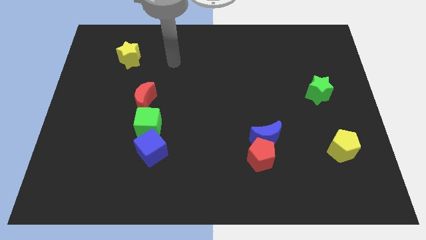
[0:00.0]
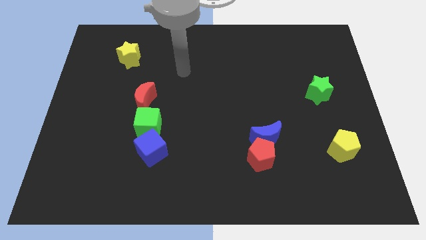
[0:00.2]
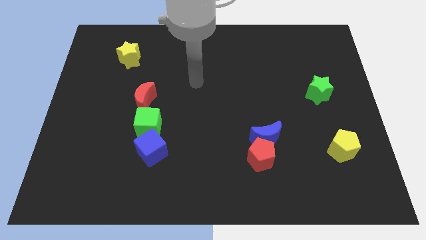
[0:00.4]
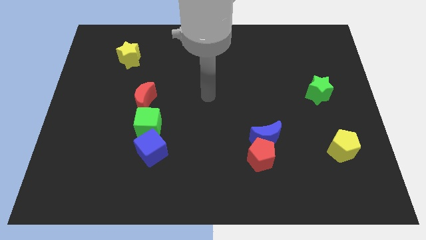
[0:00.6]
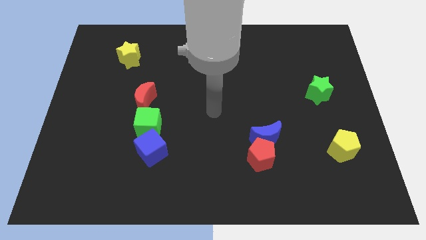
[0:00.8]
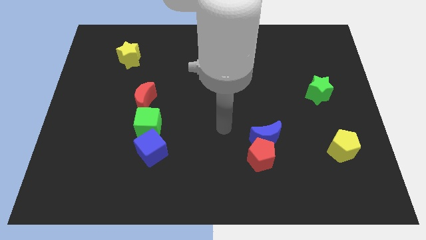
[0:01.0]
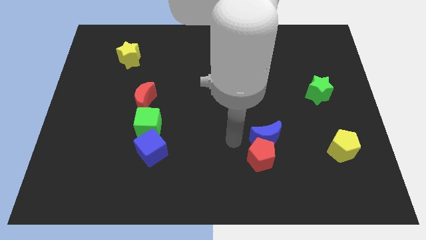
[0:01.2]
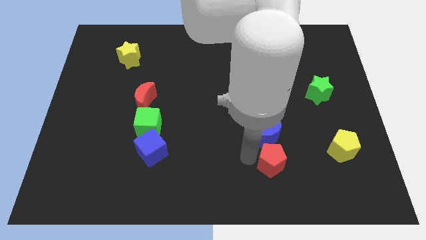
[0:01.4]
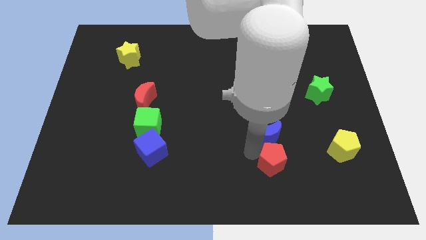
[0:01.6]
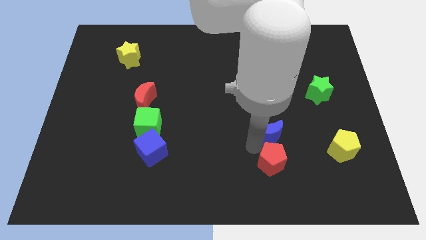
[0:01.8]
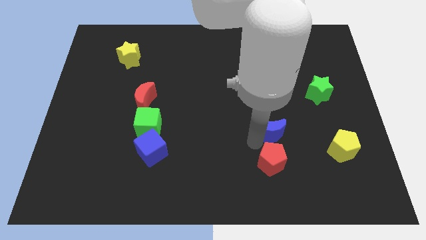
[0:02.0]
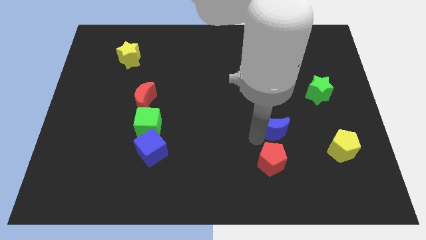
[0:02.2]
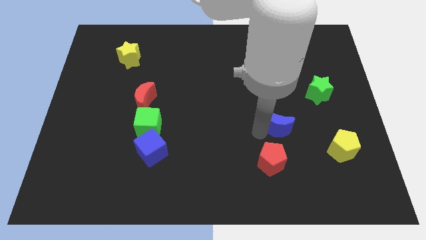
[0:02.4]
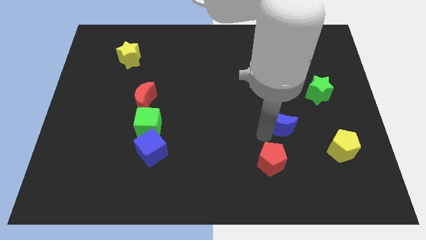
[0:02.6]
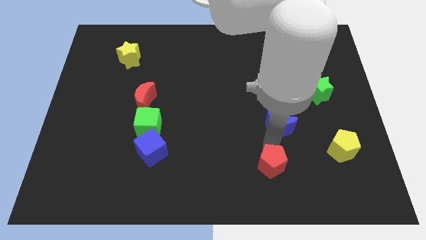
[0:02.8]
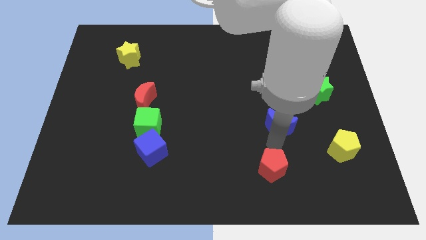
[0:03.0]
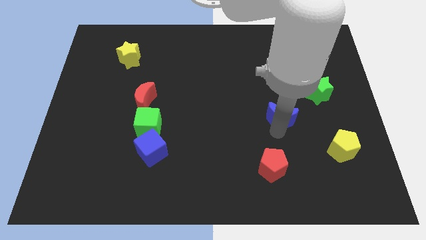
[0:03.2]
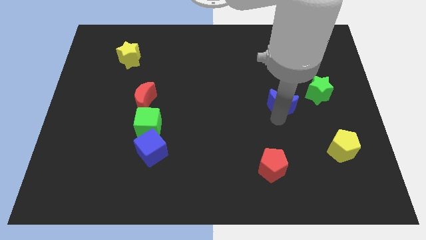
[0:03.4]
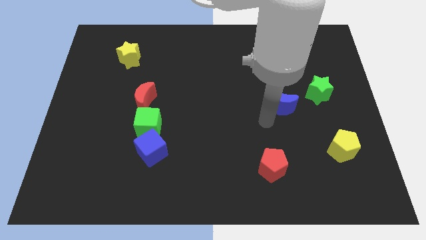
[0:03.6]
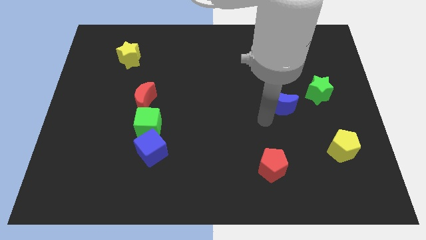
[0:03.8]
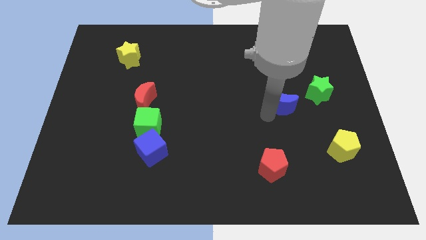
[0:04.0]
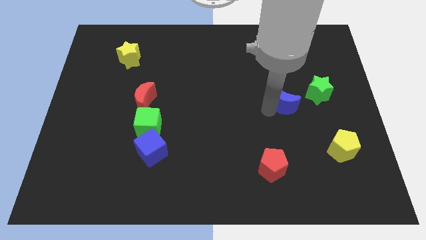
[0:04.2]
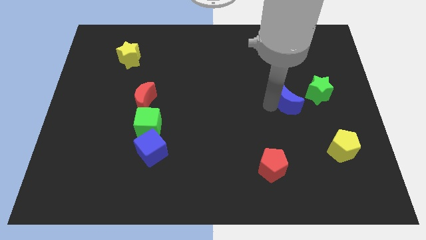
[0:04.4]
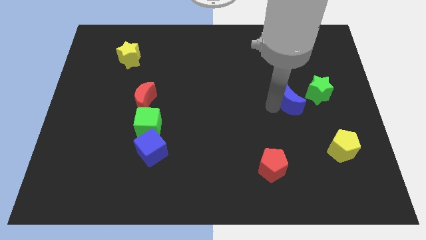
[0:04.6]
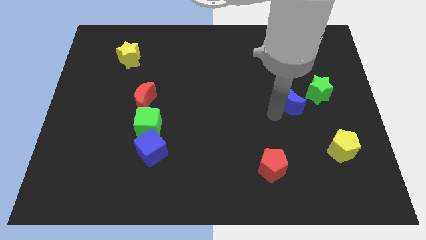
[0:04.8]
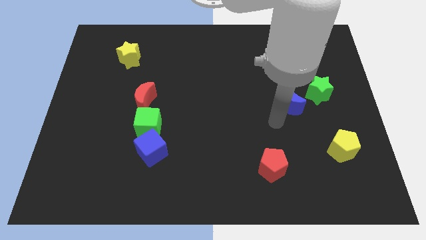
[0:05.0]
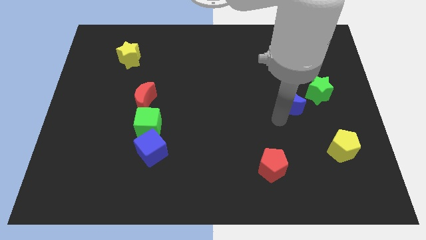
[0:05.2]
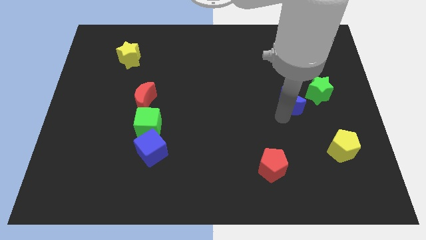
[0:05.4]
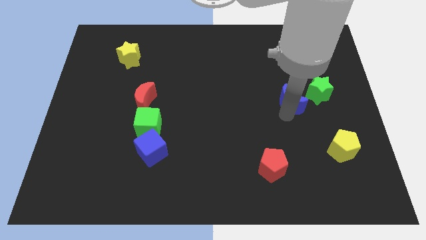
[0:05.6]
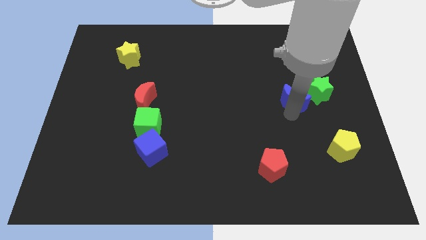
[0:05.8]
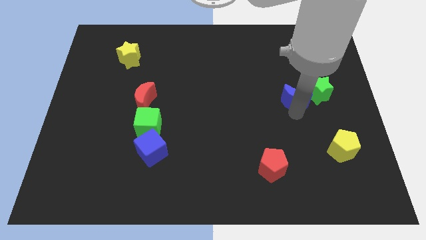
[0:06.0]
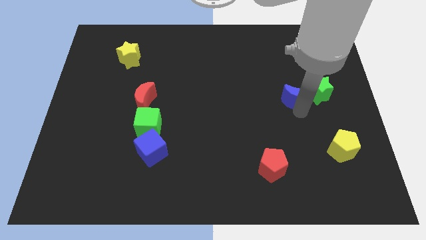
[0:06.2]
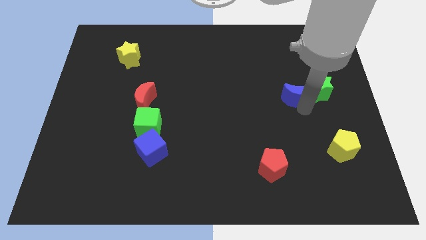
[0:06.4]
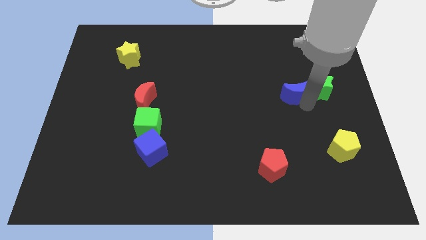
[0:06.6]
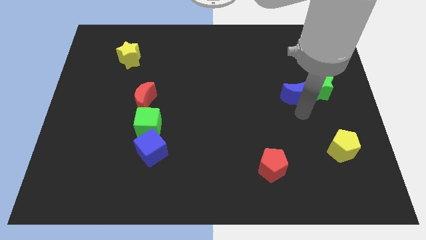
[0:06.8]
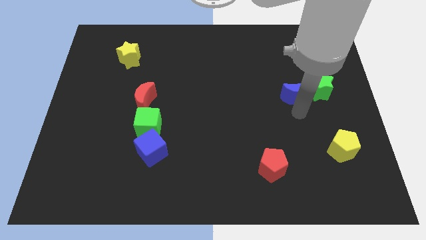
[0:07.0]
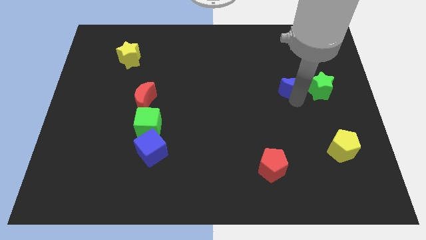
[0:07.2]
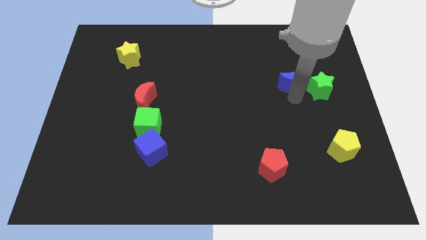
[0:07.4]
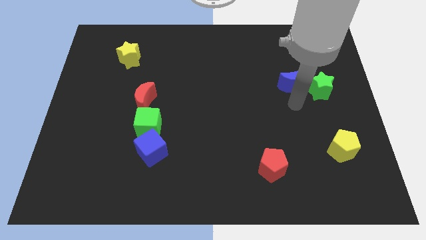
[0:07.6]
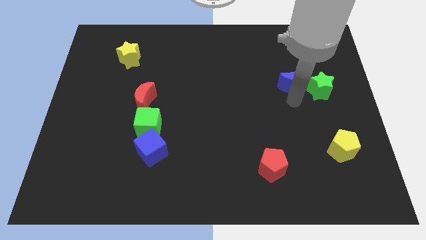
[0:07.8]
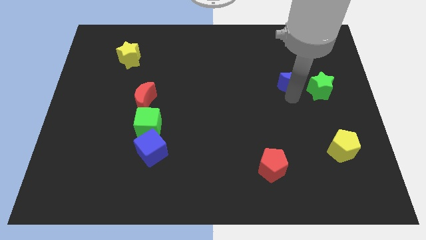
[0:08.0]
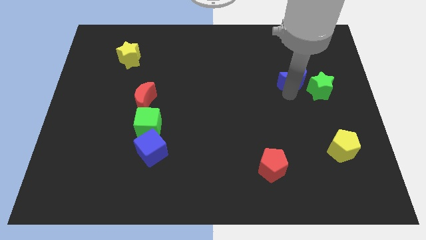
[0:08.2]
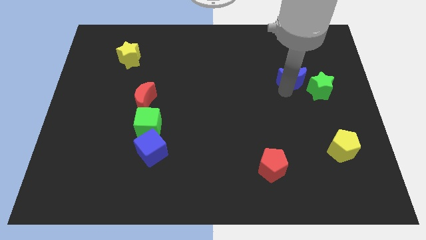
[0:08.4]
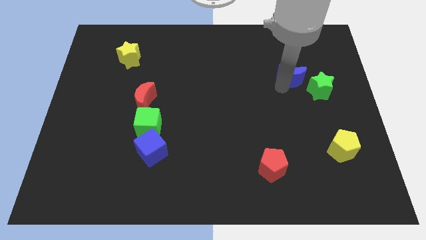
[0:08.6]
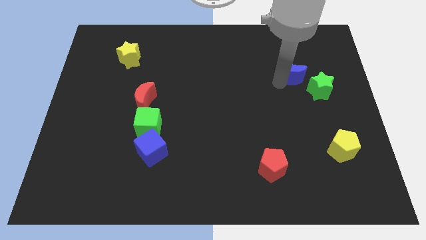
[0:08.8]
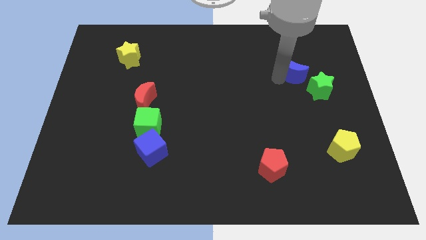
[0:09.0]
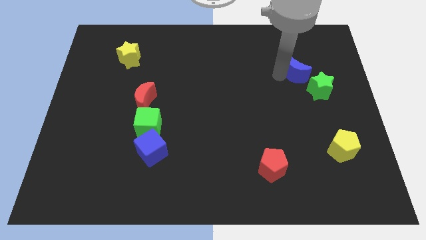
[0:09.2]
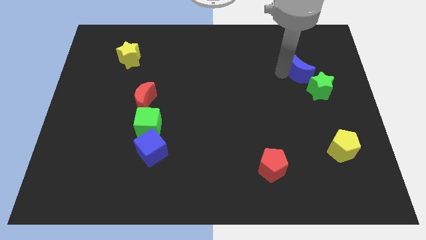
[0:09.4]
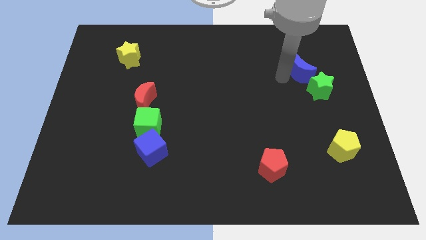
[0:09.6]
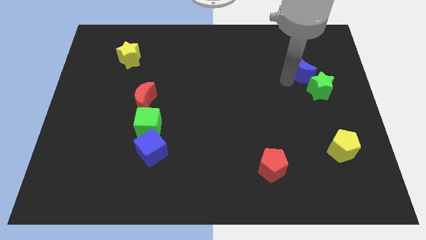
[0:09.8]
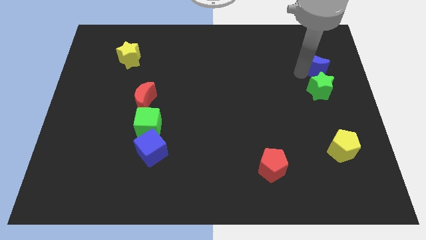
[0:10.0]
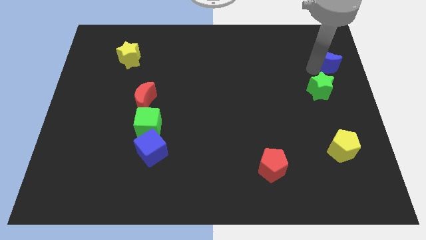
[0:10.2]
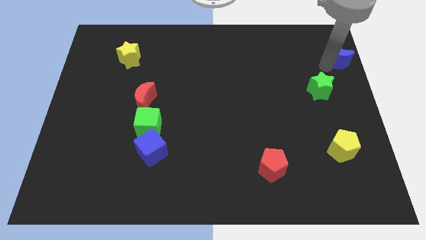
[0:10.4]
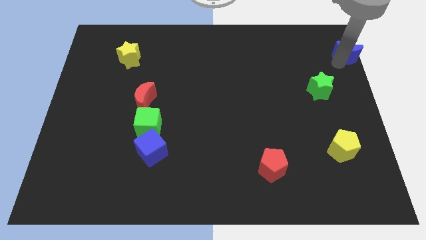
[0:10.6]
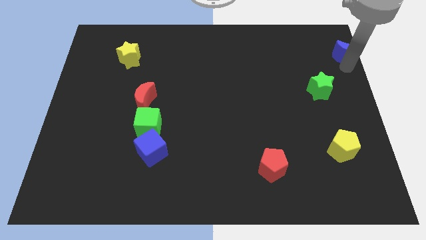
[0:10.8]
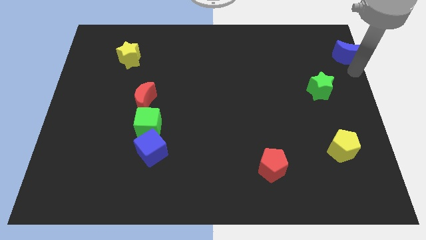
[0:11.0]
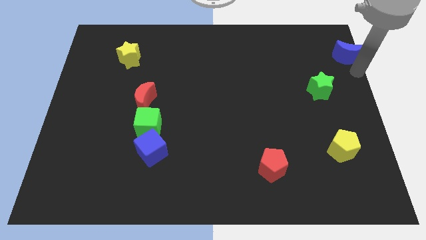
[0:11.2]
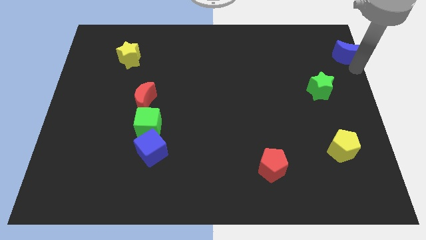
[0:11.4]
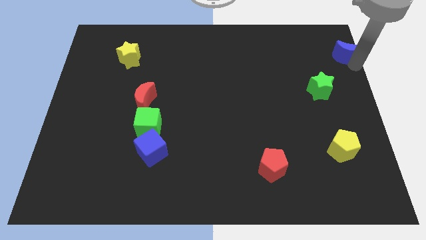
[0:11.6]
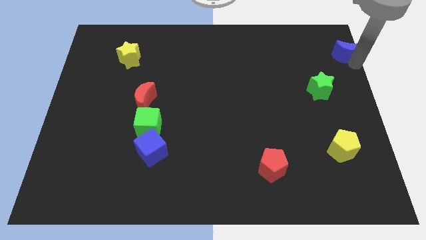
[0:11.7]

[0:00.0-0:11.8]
move the blue moon to the top right
